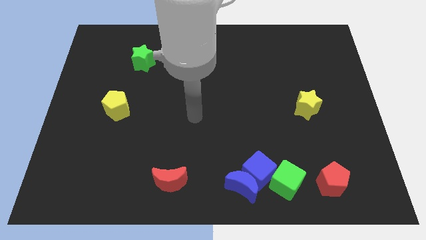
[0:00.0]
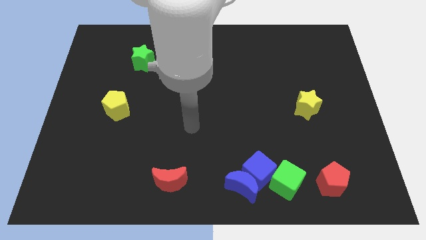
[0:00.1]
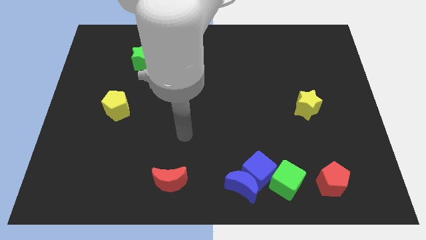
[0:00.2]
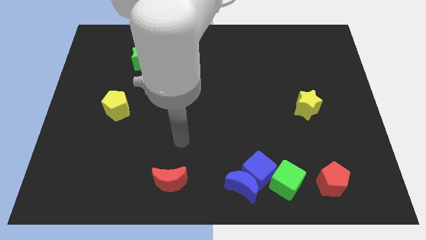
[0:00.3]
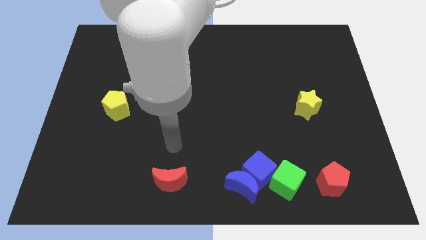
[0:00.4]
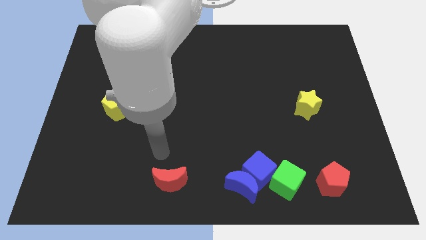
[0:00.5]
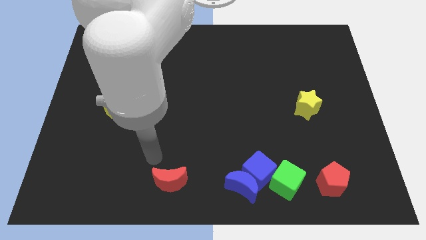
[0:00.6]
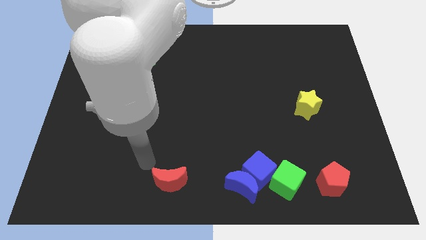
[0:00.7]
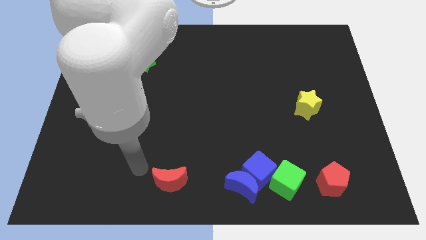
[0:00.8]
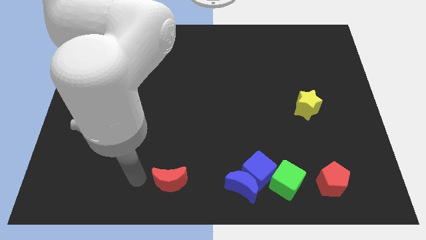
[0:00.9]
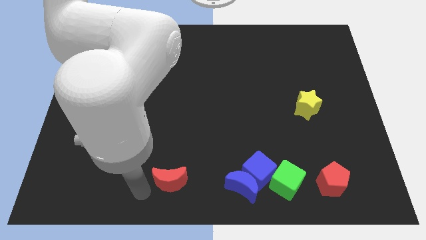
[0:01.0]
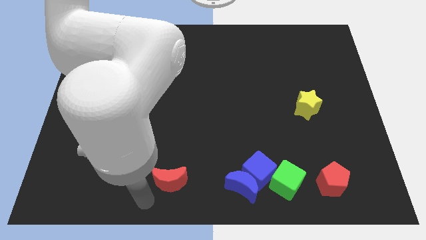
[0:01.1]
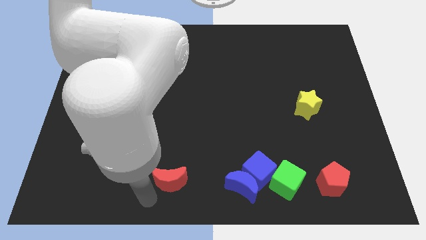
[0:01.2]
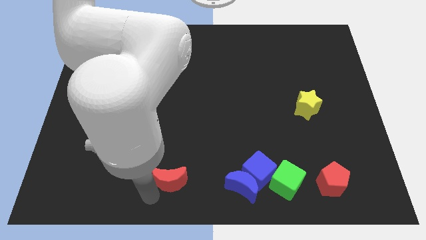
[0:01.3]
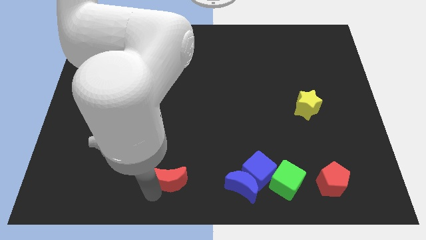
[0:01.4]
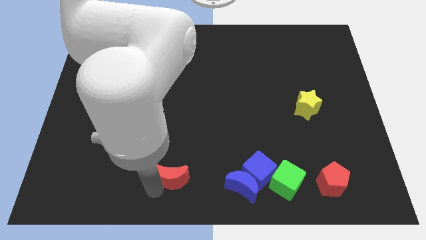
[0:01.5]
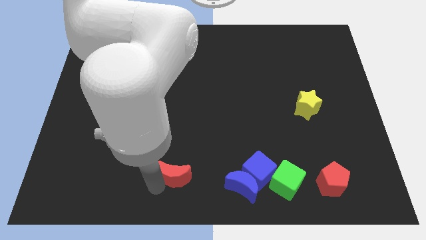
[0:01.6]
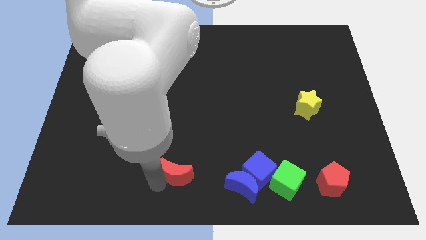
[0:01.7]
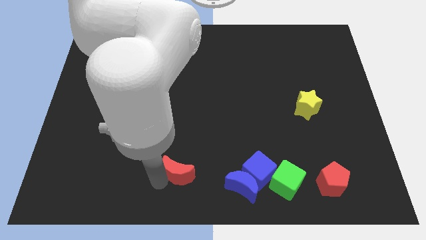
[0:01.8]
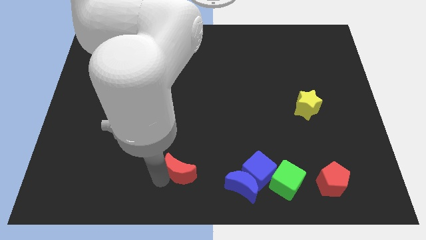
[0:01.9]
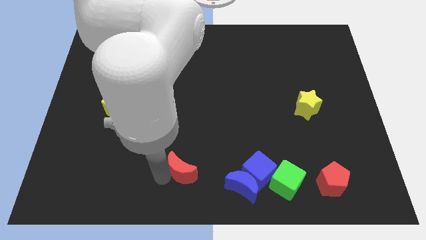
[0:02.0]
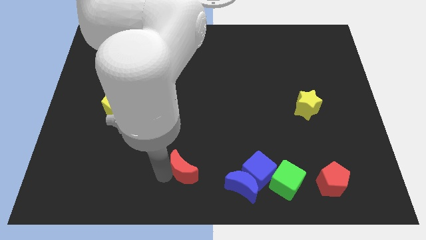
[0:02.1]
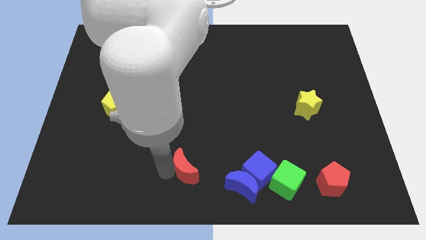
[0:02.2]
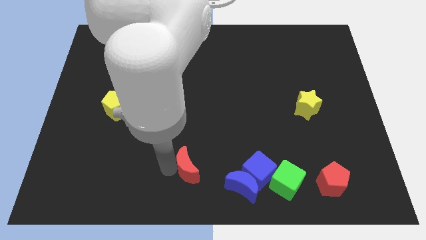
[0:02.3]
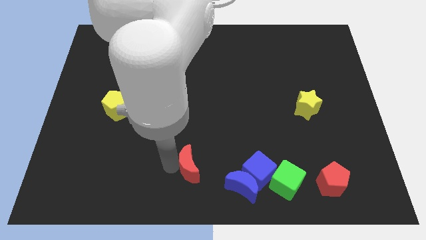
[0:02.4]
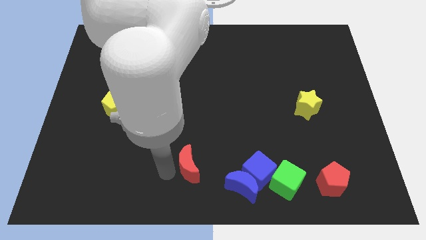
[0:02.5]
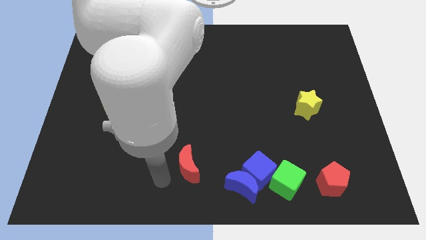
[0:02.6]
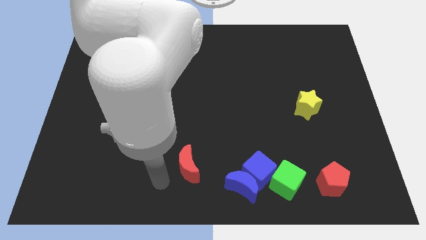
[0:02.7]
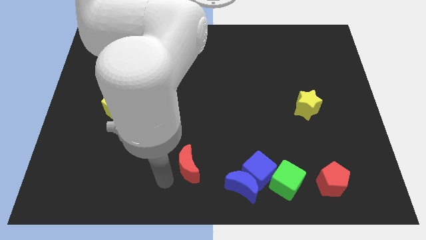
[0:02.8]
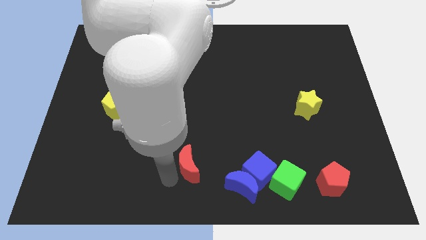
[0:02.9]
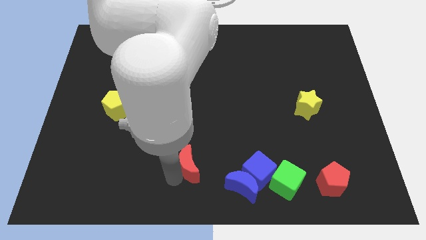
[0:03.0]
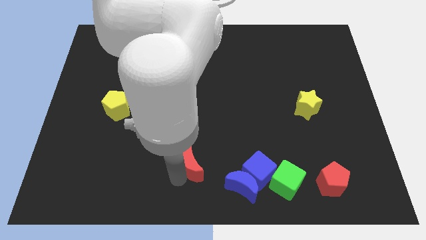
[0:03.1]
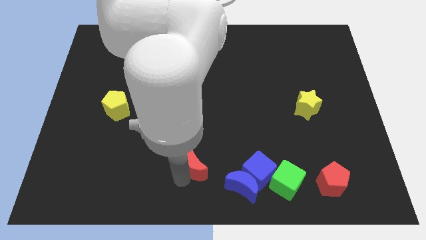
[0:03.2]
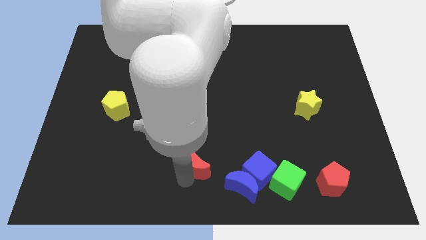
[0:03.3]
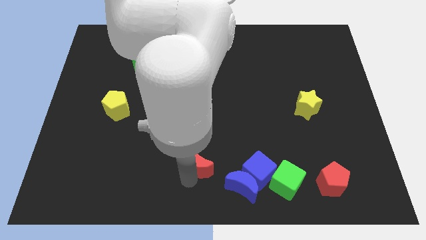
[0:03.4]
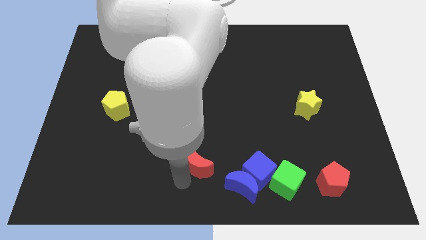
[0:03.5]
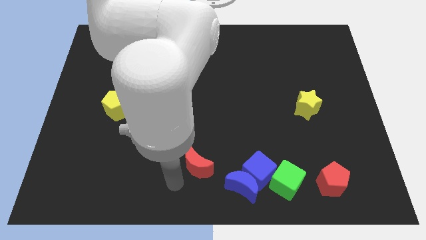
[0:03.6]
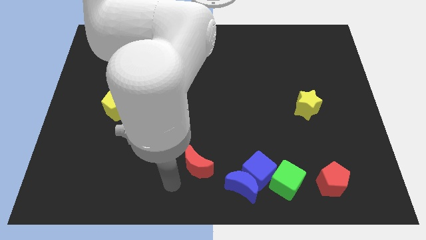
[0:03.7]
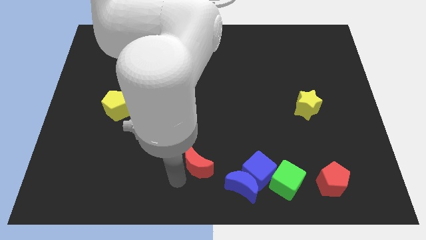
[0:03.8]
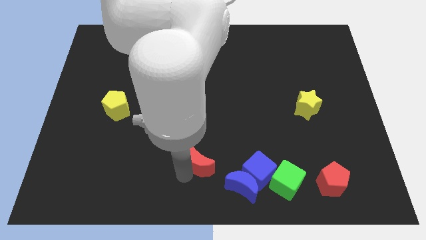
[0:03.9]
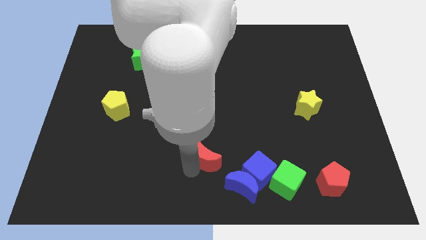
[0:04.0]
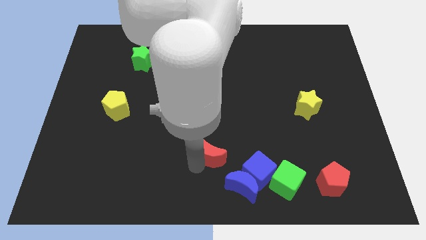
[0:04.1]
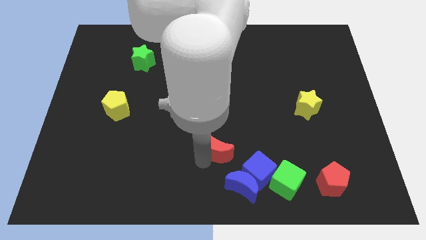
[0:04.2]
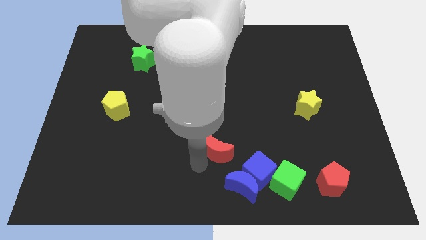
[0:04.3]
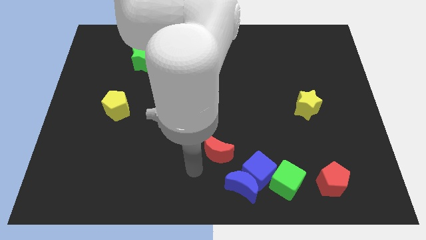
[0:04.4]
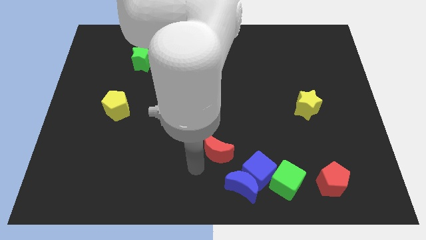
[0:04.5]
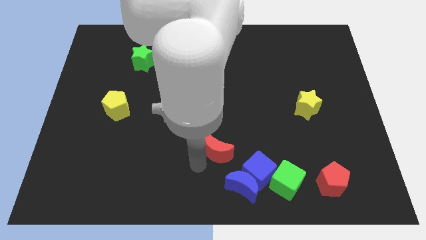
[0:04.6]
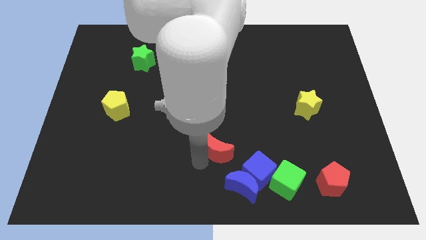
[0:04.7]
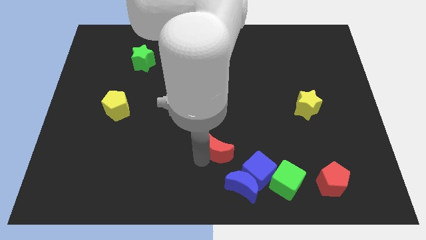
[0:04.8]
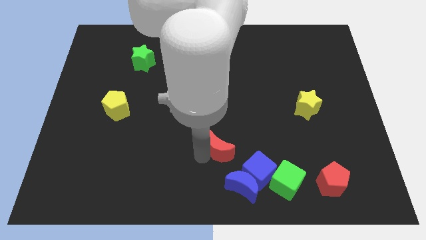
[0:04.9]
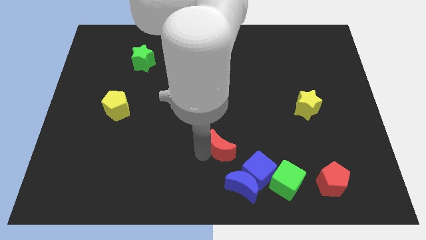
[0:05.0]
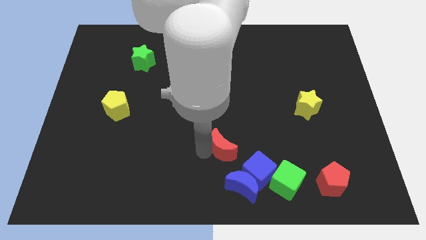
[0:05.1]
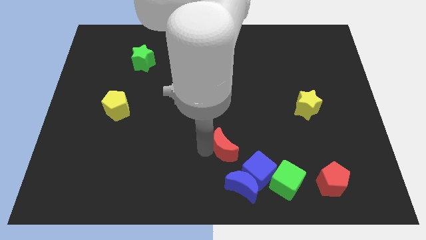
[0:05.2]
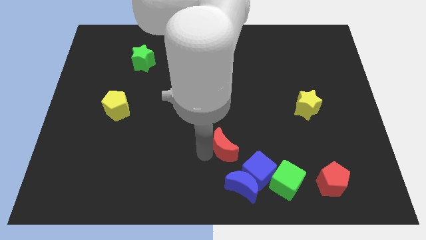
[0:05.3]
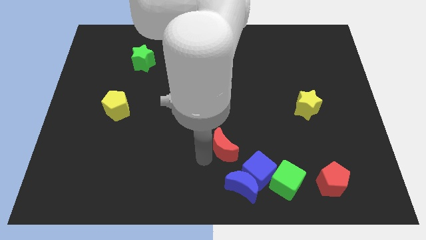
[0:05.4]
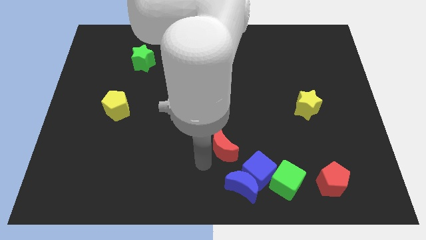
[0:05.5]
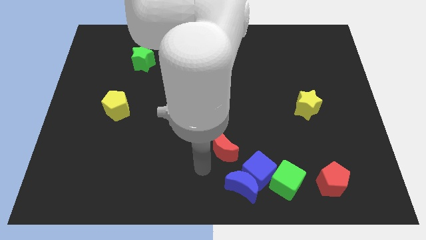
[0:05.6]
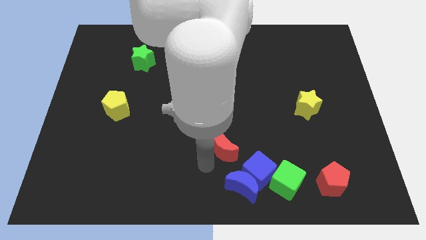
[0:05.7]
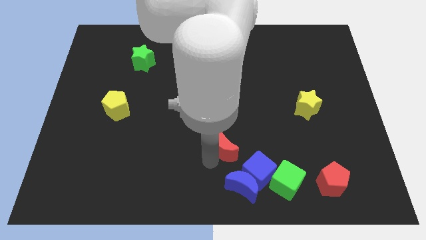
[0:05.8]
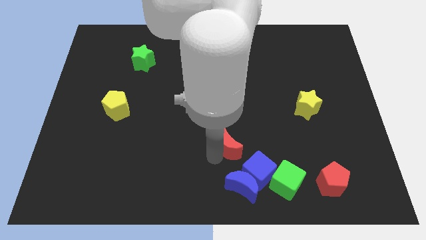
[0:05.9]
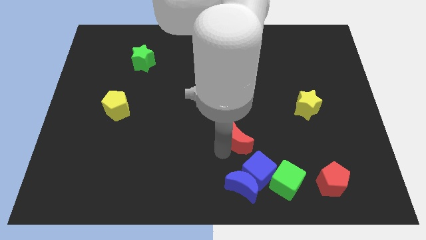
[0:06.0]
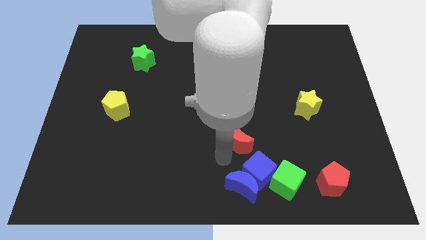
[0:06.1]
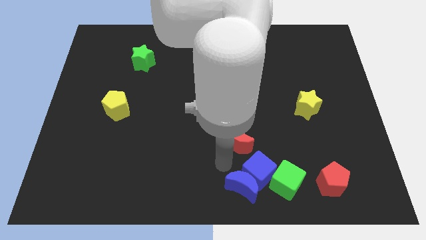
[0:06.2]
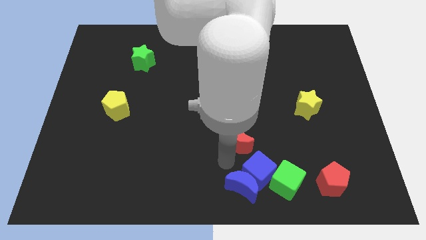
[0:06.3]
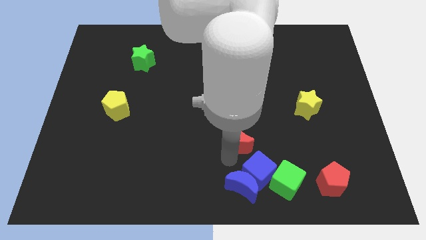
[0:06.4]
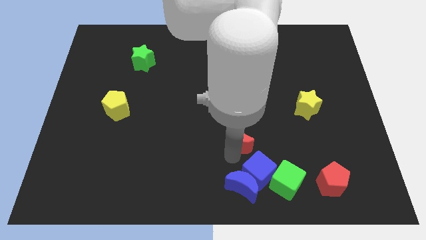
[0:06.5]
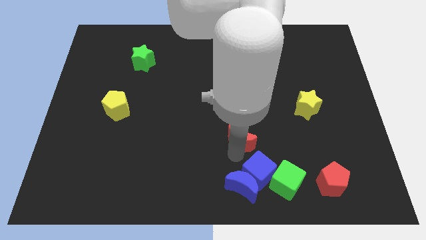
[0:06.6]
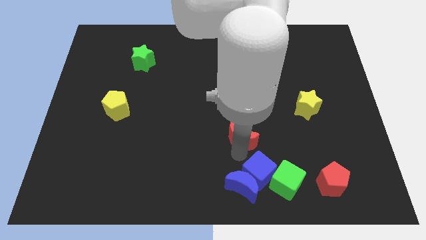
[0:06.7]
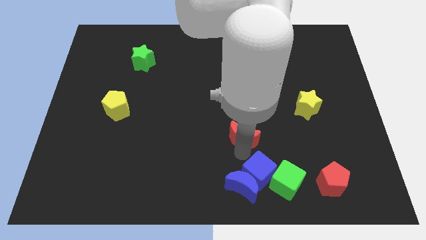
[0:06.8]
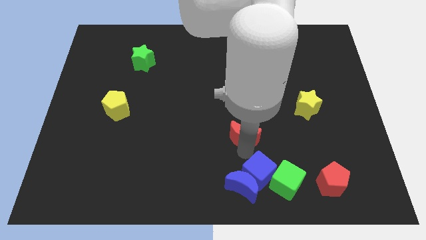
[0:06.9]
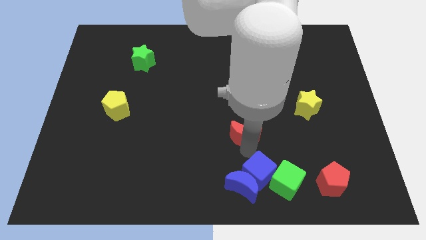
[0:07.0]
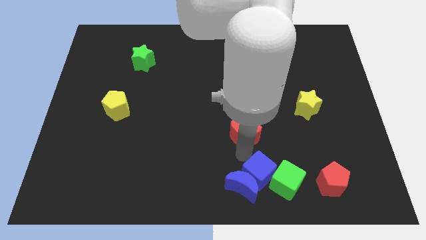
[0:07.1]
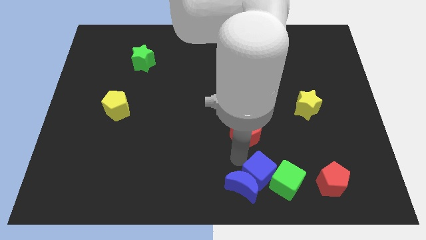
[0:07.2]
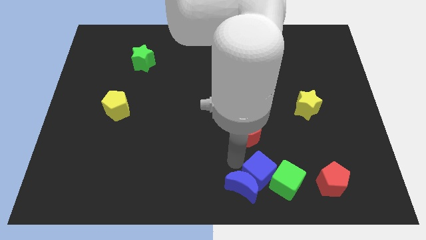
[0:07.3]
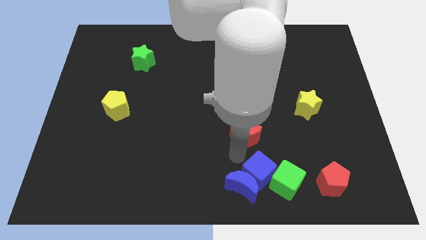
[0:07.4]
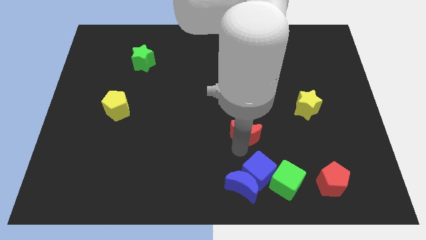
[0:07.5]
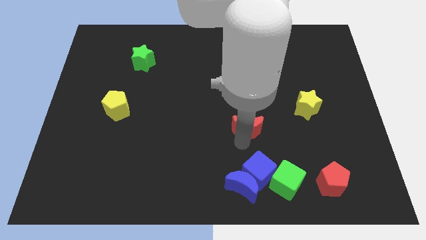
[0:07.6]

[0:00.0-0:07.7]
move the red moon upwards and right diagonally

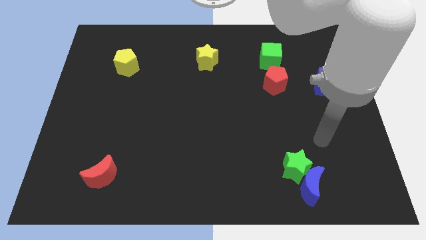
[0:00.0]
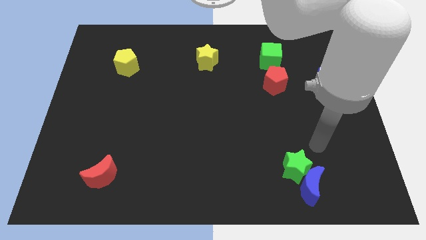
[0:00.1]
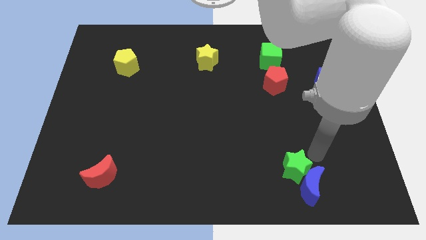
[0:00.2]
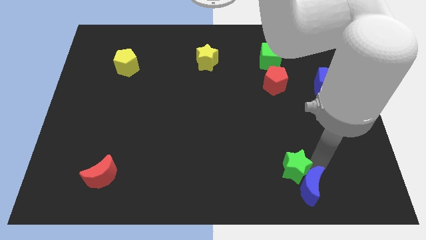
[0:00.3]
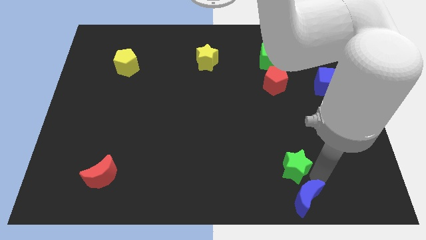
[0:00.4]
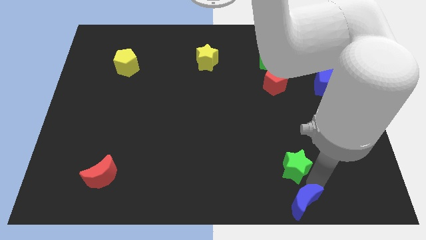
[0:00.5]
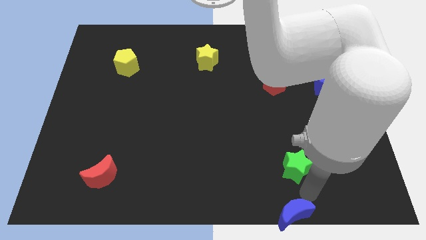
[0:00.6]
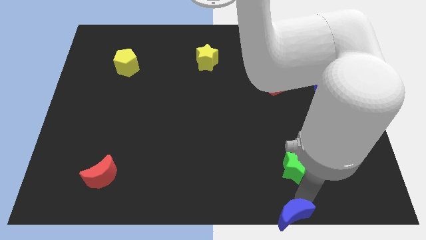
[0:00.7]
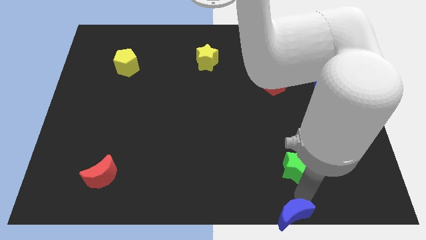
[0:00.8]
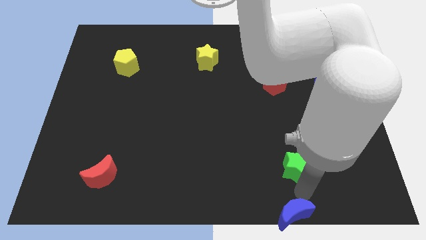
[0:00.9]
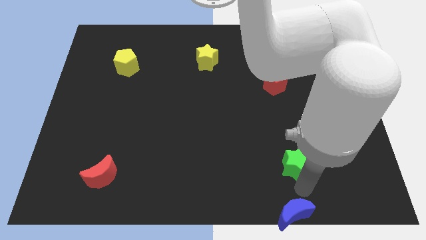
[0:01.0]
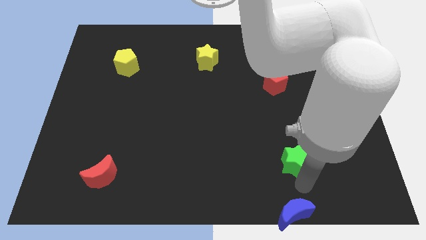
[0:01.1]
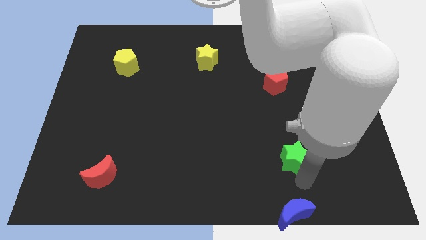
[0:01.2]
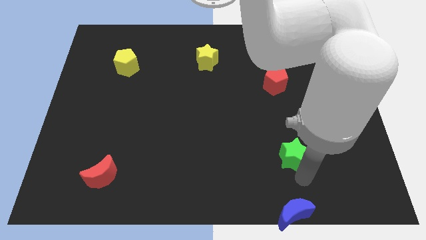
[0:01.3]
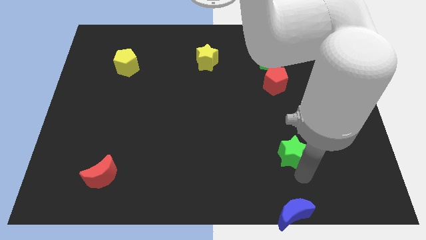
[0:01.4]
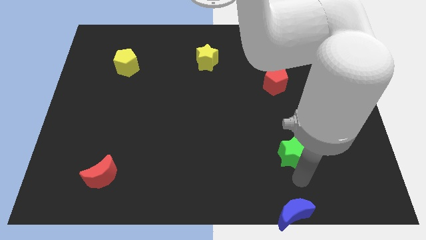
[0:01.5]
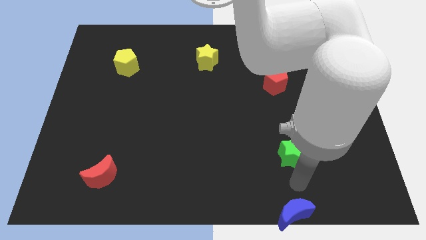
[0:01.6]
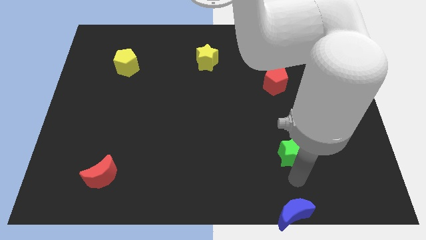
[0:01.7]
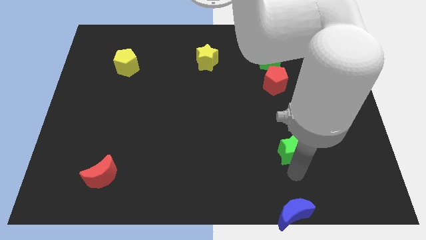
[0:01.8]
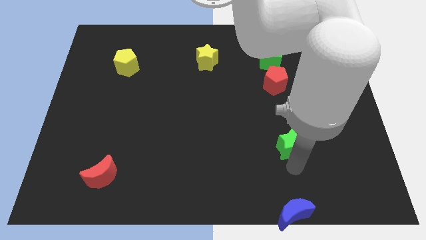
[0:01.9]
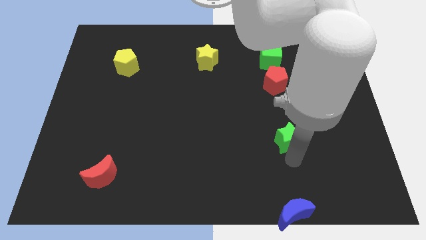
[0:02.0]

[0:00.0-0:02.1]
slightly push the green star up
